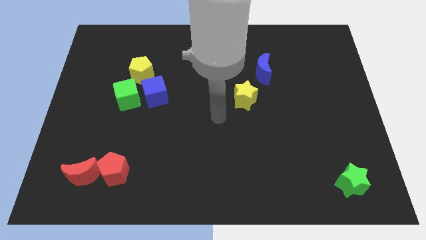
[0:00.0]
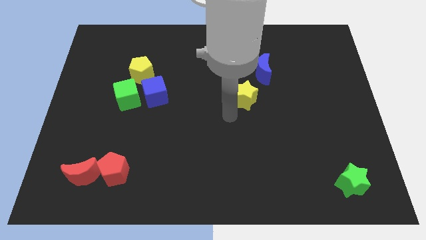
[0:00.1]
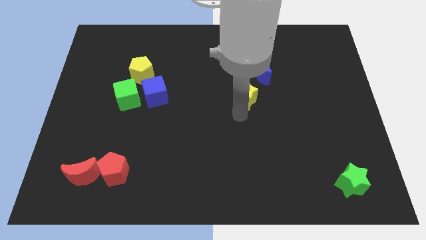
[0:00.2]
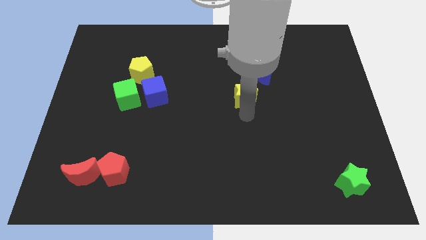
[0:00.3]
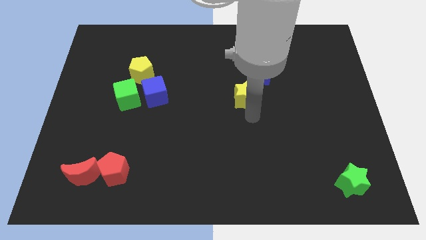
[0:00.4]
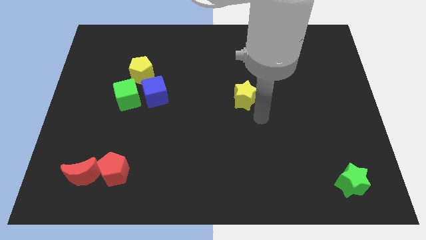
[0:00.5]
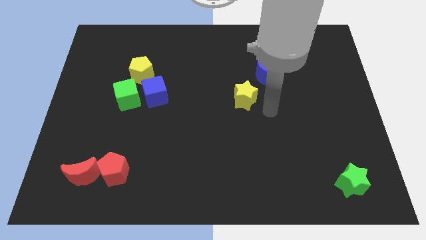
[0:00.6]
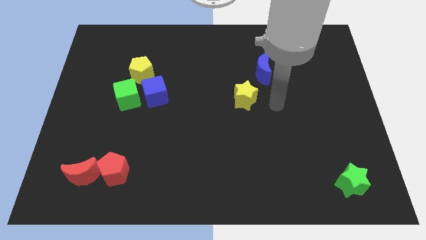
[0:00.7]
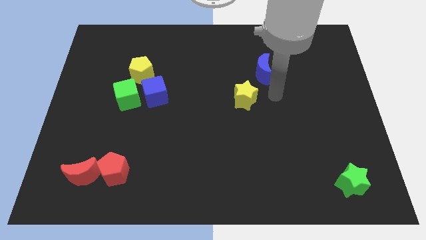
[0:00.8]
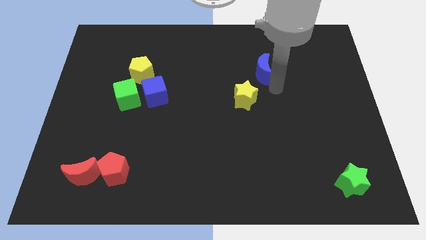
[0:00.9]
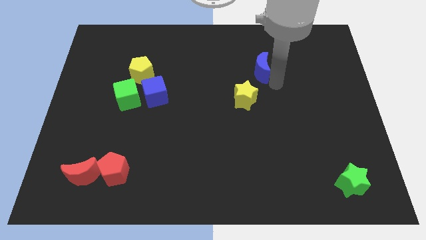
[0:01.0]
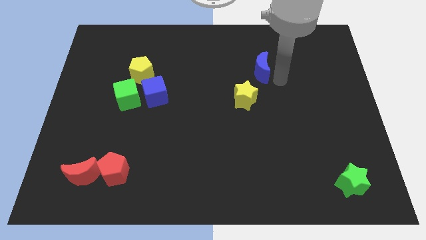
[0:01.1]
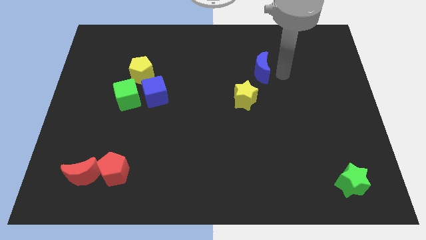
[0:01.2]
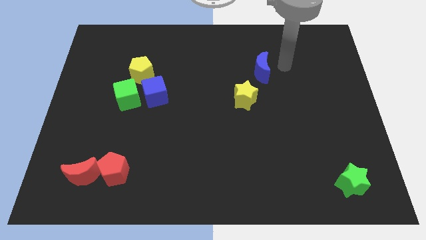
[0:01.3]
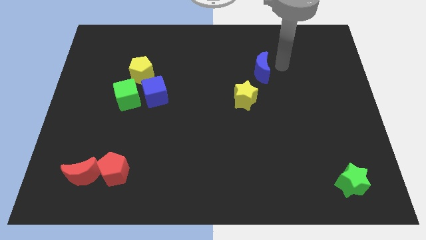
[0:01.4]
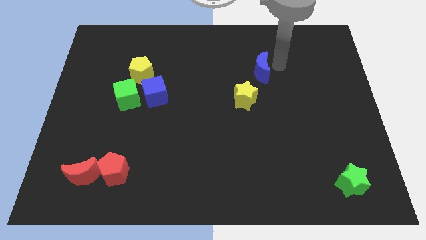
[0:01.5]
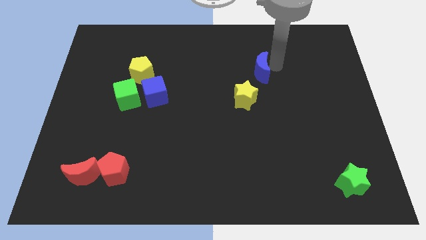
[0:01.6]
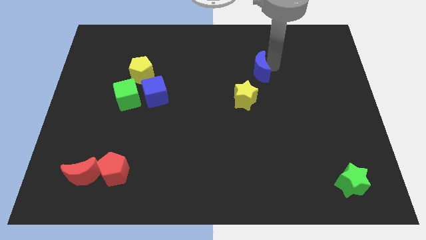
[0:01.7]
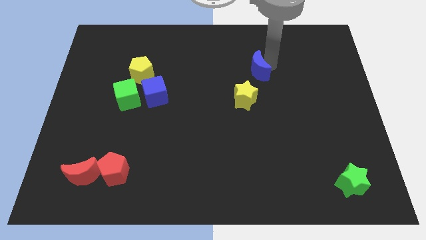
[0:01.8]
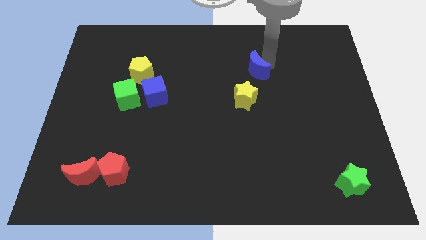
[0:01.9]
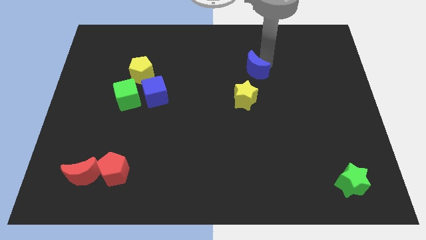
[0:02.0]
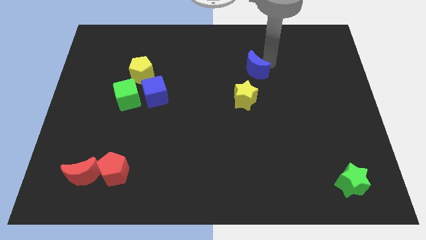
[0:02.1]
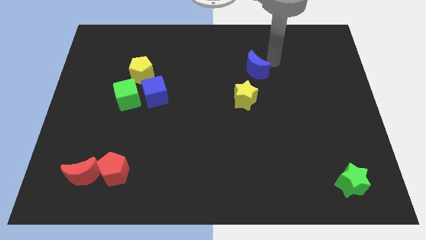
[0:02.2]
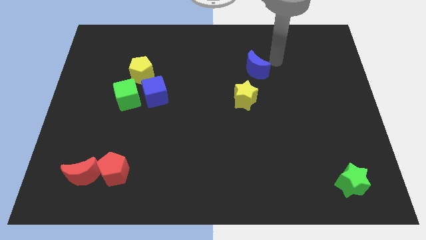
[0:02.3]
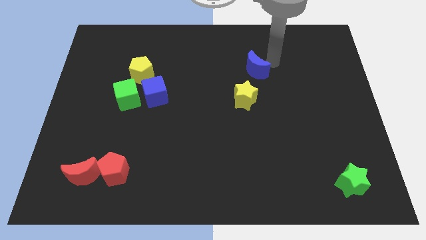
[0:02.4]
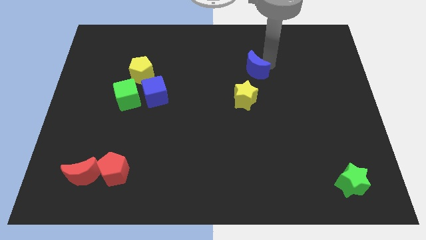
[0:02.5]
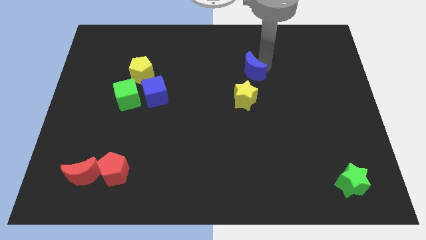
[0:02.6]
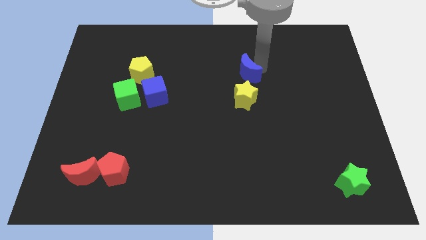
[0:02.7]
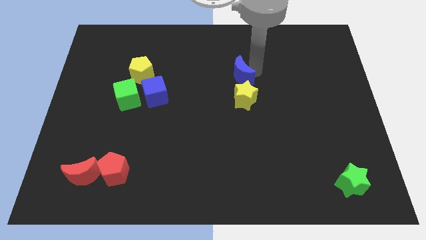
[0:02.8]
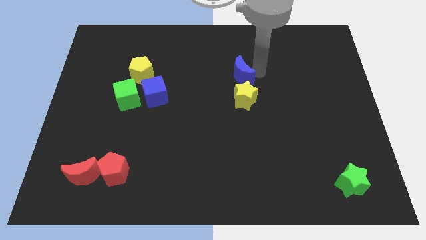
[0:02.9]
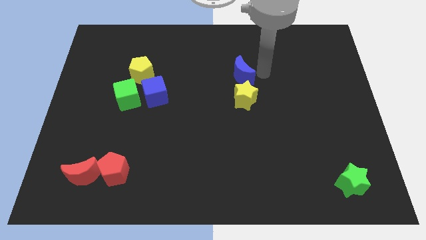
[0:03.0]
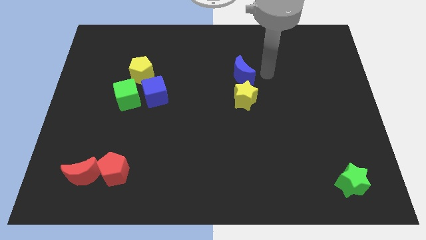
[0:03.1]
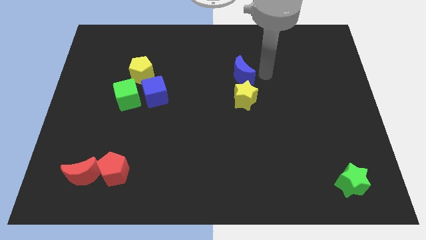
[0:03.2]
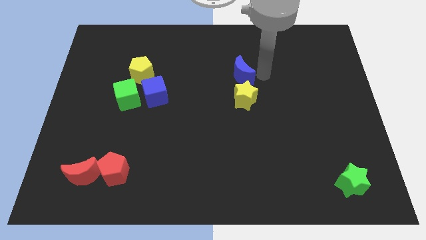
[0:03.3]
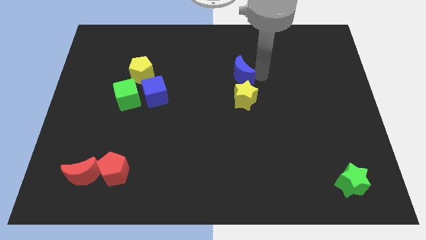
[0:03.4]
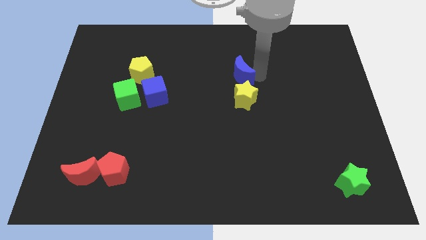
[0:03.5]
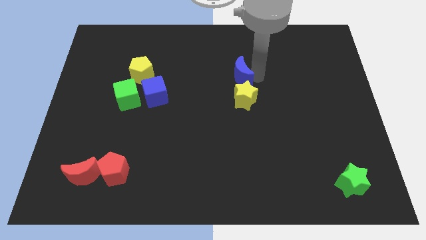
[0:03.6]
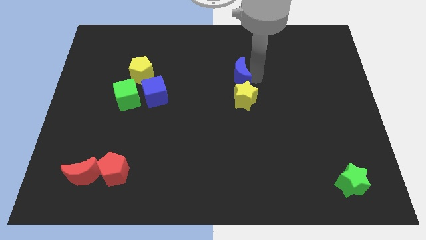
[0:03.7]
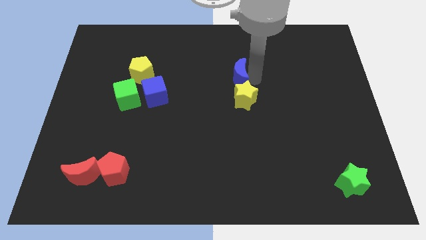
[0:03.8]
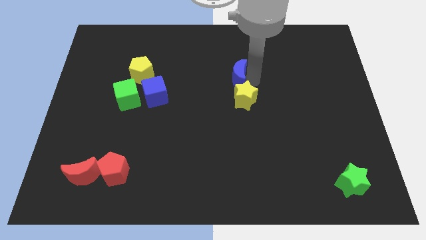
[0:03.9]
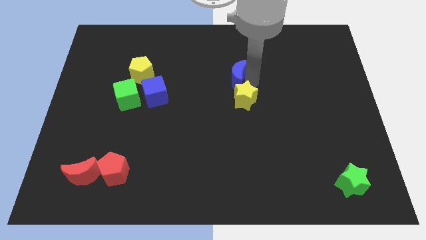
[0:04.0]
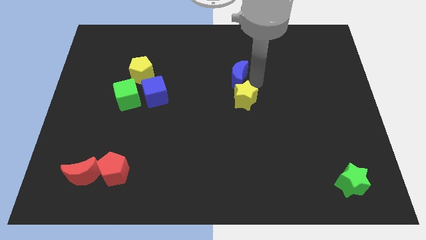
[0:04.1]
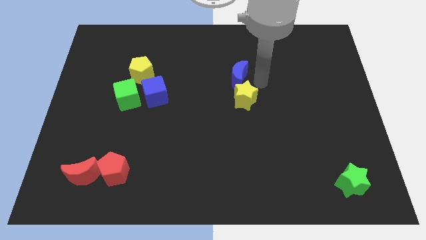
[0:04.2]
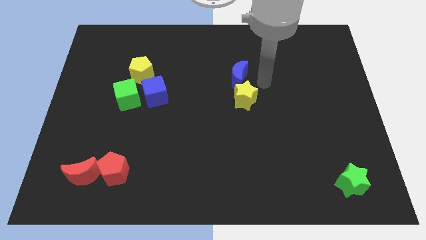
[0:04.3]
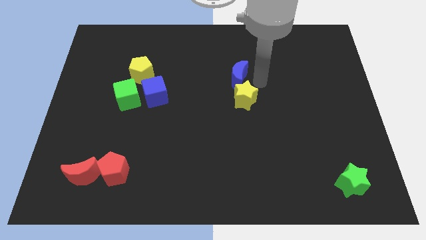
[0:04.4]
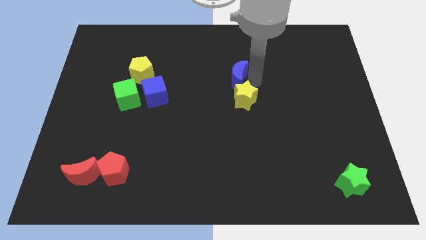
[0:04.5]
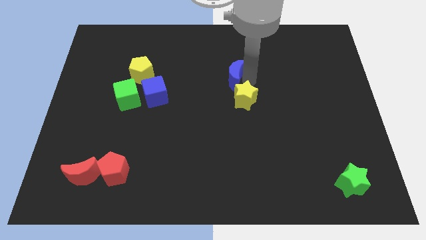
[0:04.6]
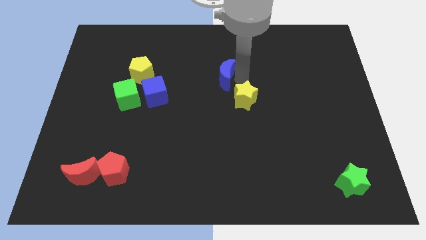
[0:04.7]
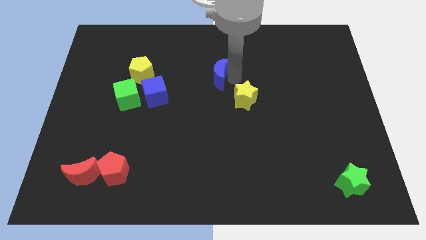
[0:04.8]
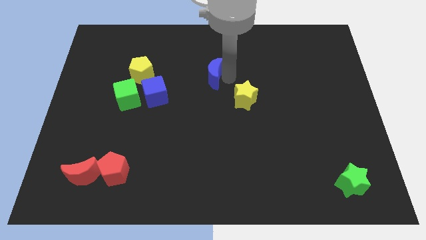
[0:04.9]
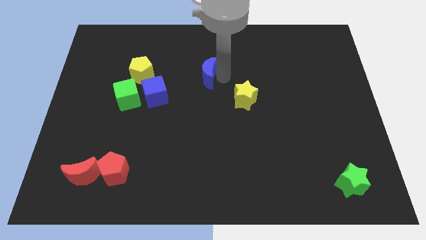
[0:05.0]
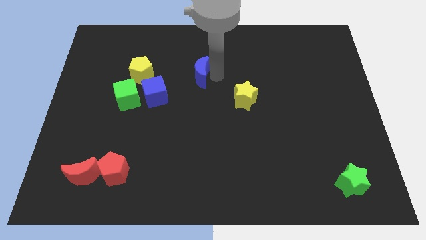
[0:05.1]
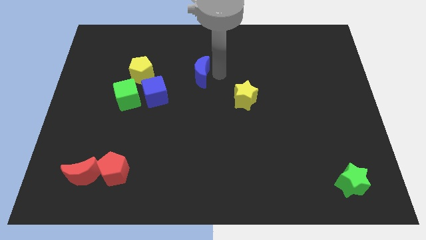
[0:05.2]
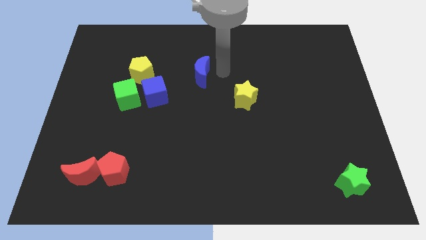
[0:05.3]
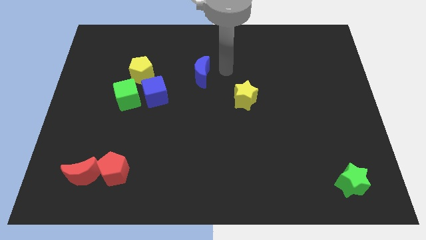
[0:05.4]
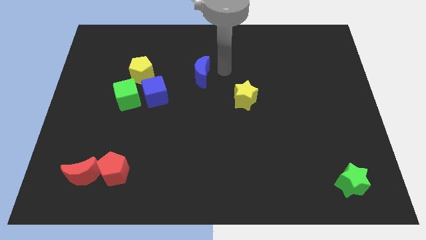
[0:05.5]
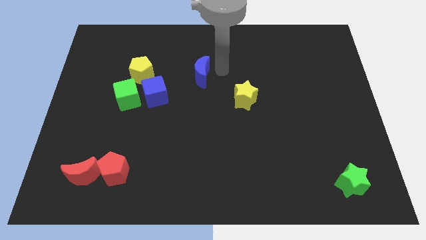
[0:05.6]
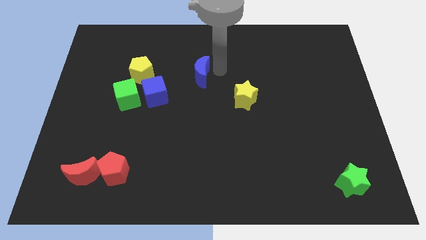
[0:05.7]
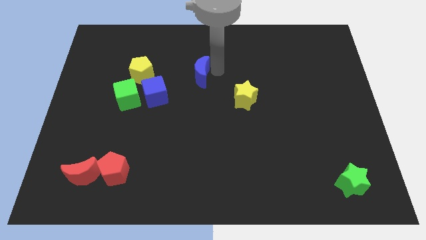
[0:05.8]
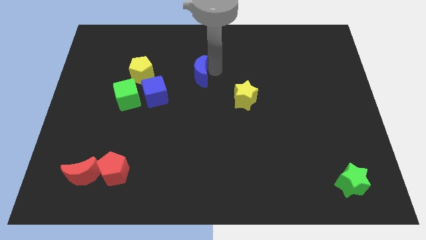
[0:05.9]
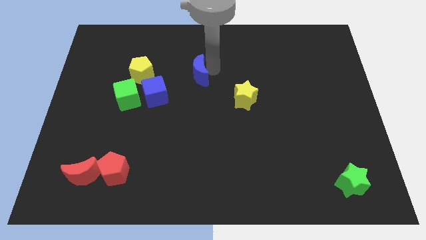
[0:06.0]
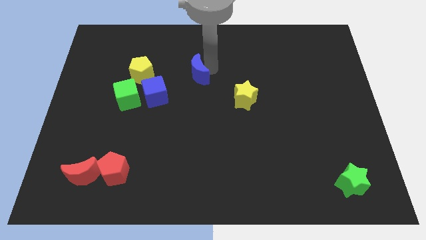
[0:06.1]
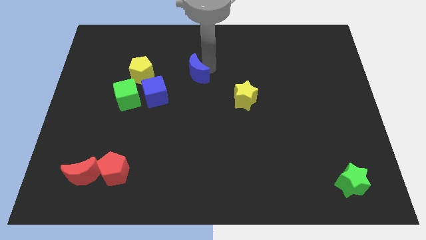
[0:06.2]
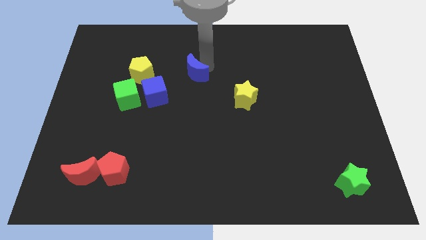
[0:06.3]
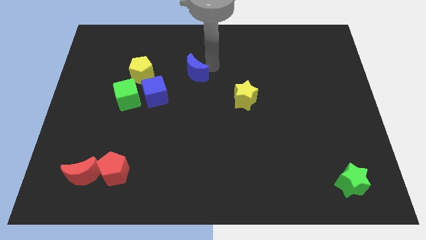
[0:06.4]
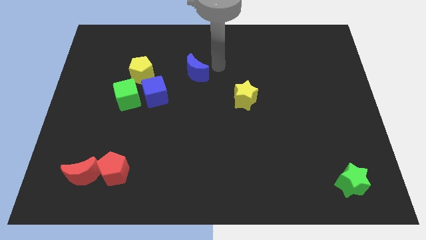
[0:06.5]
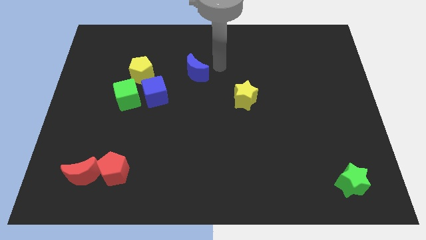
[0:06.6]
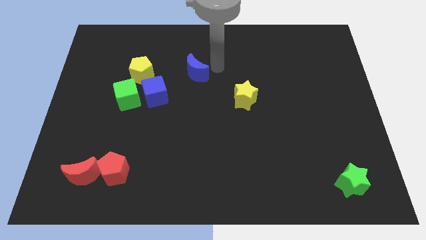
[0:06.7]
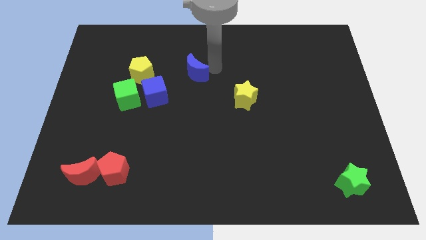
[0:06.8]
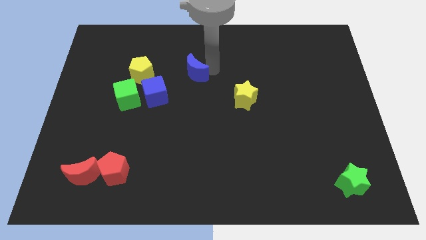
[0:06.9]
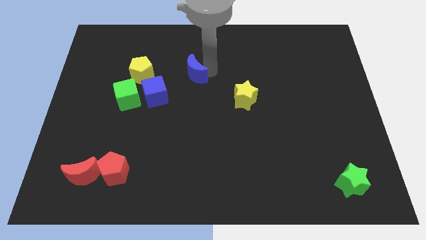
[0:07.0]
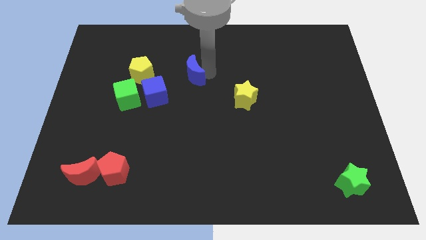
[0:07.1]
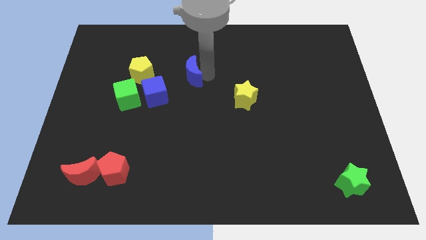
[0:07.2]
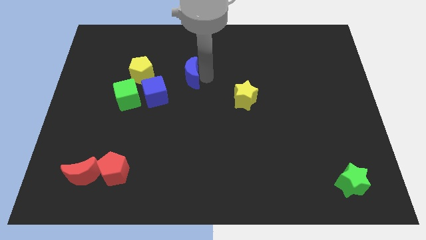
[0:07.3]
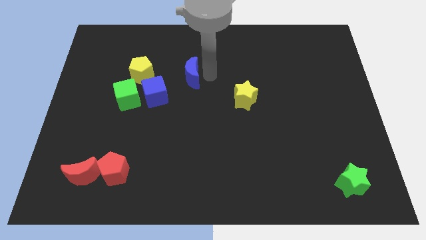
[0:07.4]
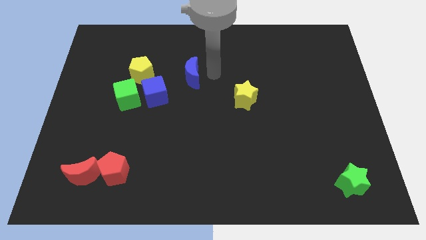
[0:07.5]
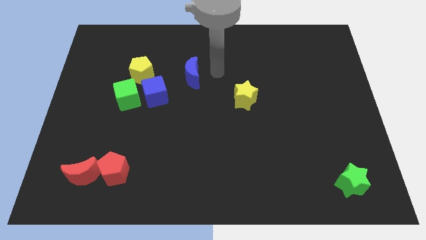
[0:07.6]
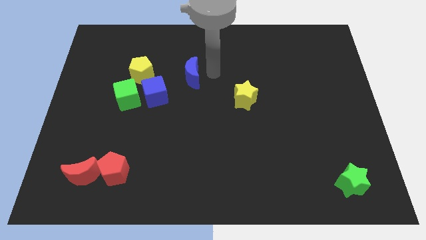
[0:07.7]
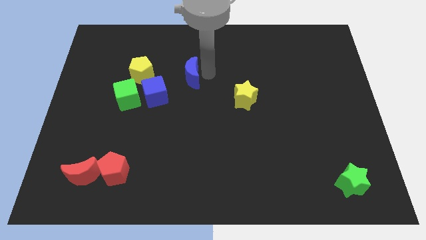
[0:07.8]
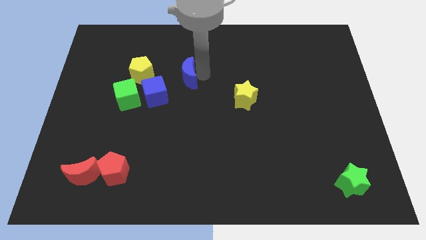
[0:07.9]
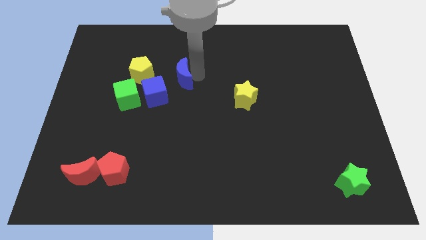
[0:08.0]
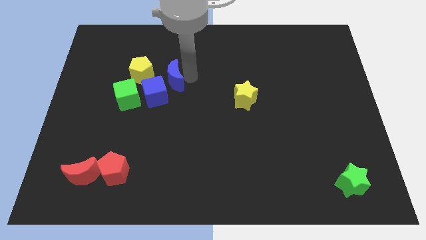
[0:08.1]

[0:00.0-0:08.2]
move the blue moon to the top right side of the green cube
